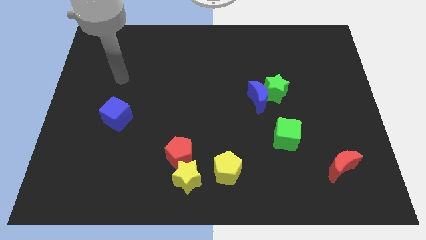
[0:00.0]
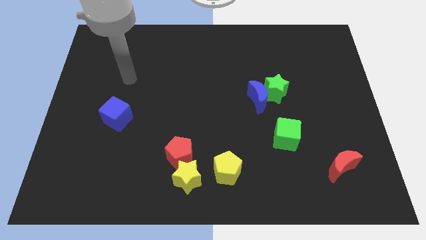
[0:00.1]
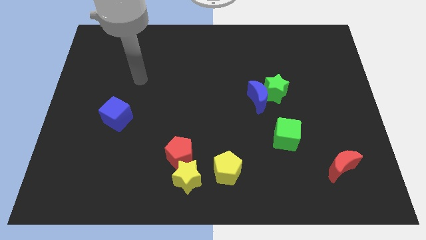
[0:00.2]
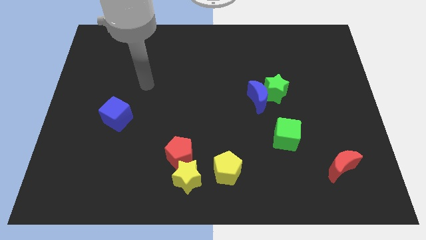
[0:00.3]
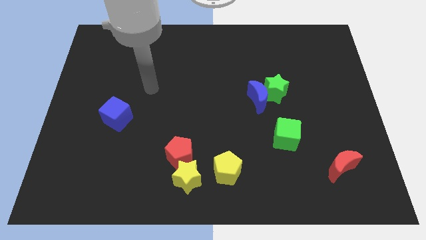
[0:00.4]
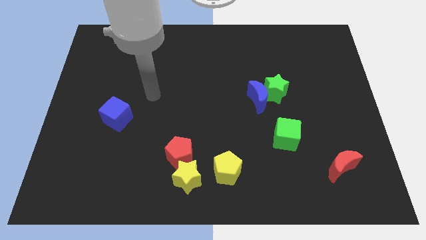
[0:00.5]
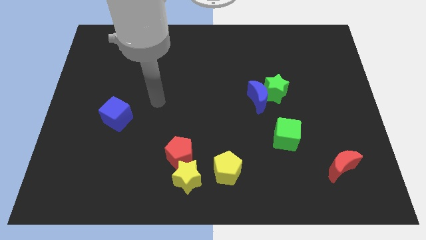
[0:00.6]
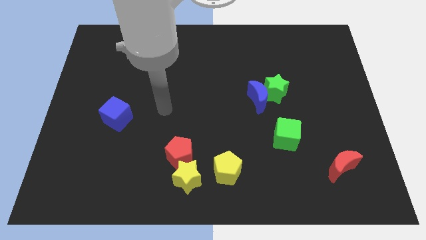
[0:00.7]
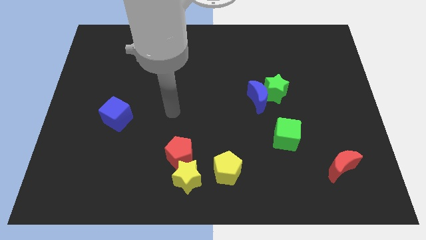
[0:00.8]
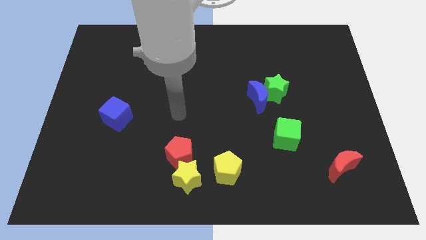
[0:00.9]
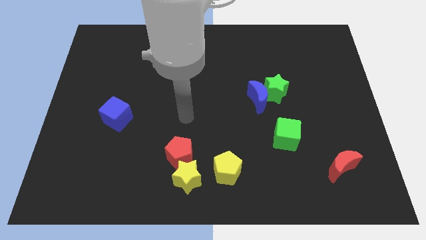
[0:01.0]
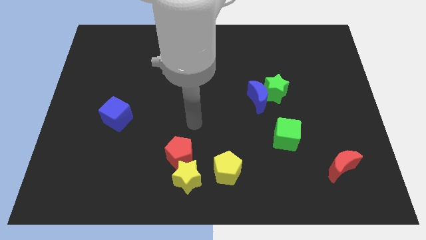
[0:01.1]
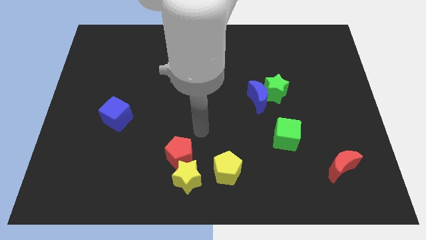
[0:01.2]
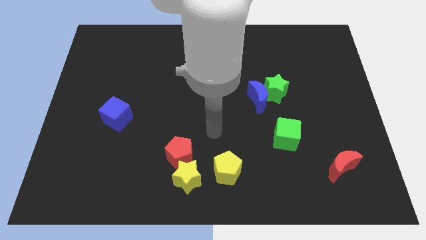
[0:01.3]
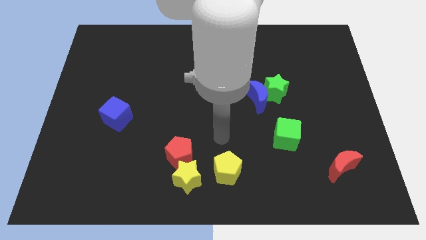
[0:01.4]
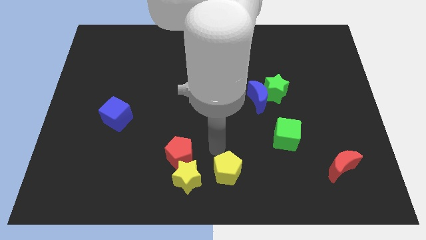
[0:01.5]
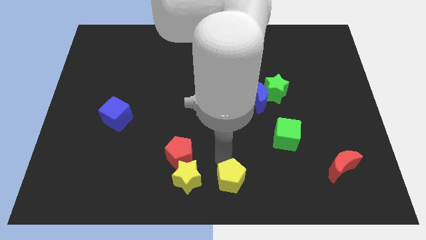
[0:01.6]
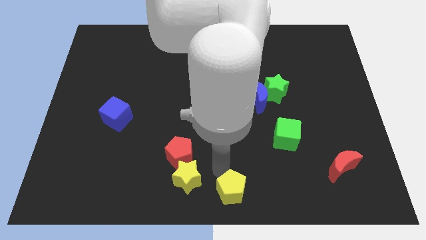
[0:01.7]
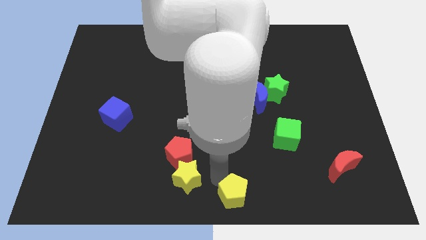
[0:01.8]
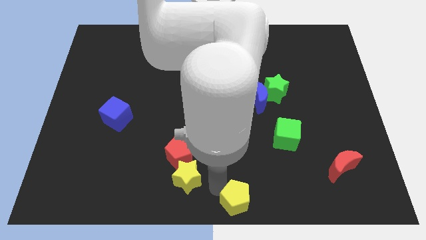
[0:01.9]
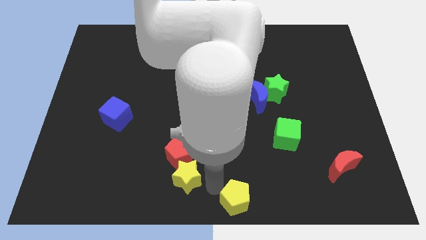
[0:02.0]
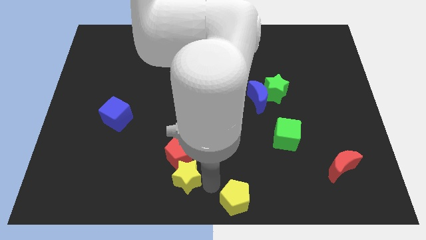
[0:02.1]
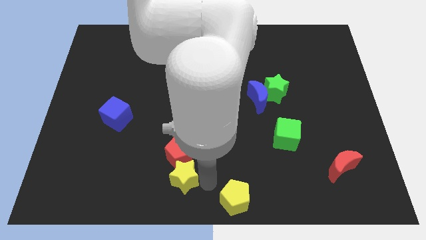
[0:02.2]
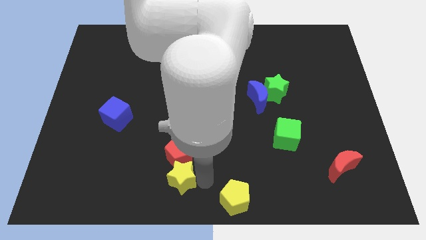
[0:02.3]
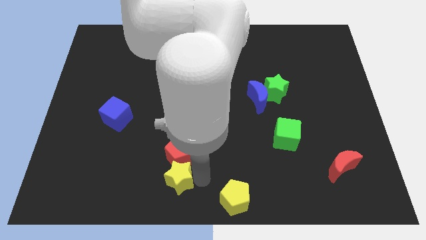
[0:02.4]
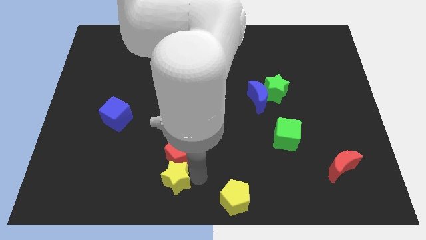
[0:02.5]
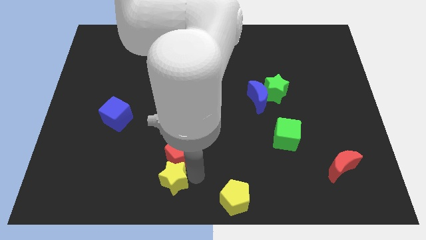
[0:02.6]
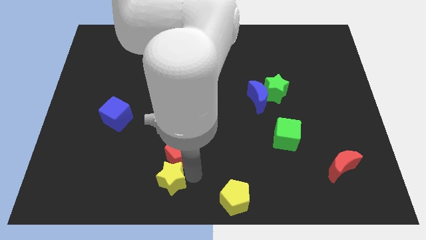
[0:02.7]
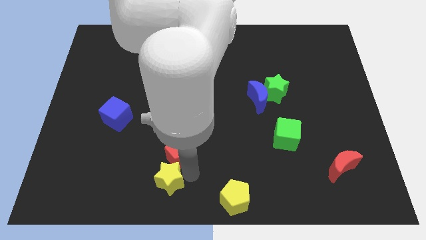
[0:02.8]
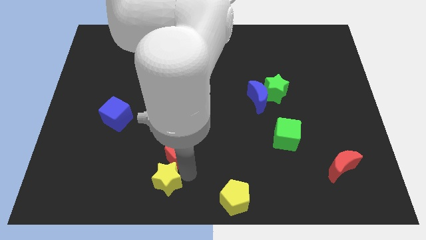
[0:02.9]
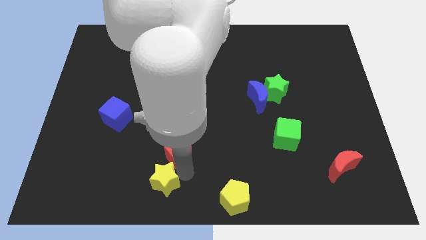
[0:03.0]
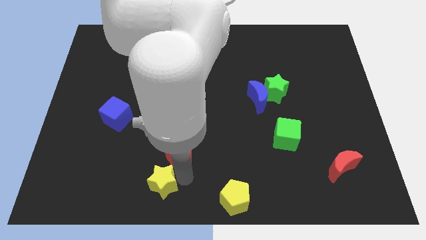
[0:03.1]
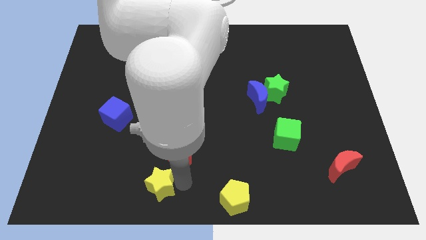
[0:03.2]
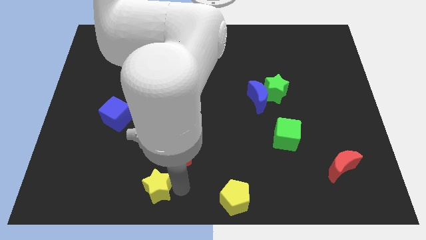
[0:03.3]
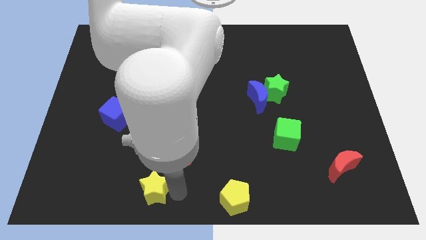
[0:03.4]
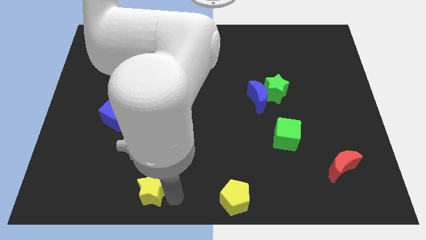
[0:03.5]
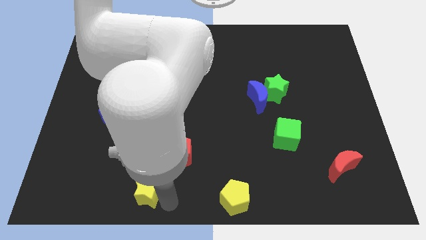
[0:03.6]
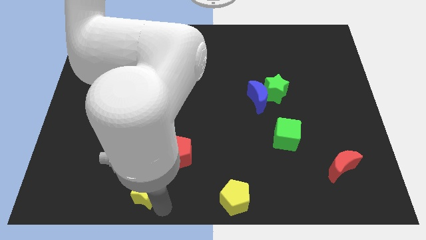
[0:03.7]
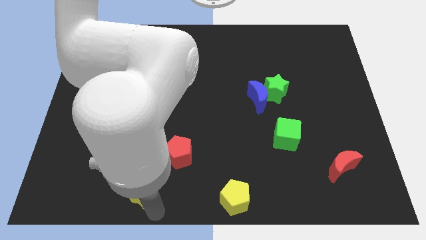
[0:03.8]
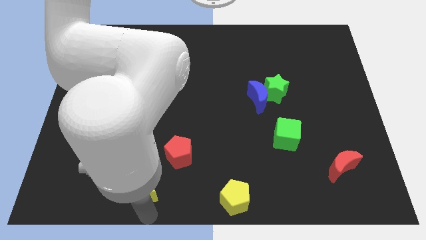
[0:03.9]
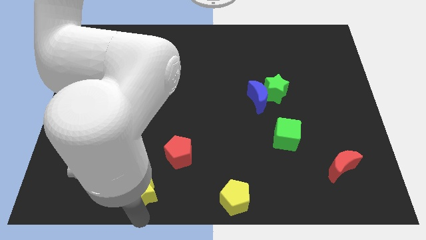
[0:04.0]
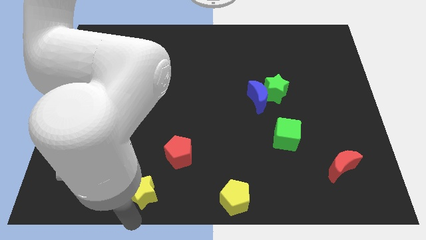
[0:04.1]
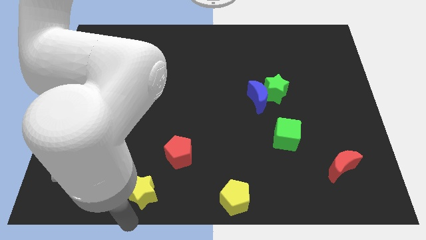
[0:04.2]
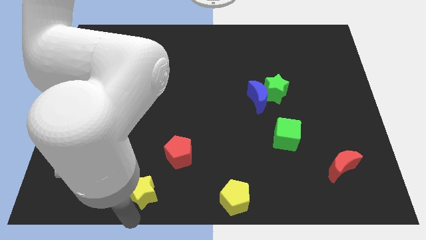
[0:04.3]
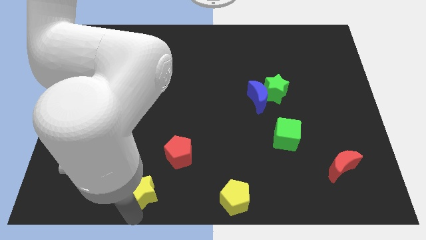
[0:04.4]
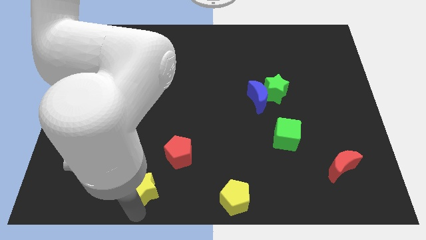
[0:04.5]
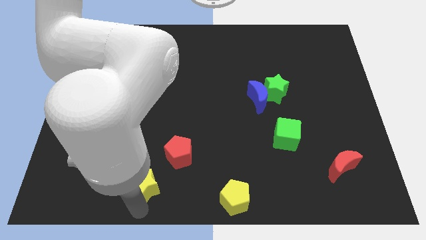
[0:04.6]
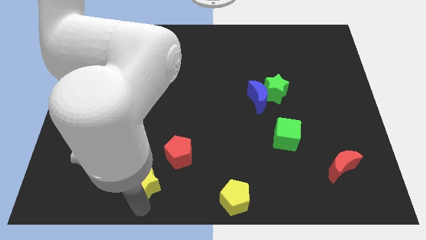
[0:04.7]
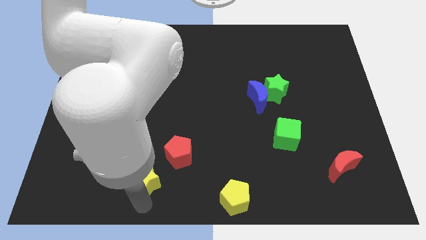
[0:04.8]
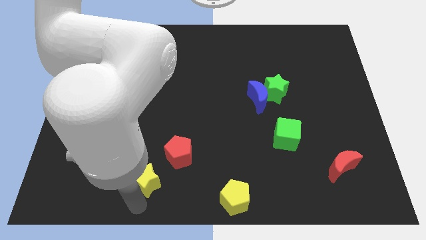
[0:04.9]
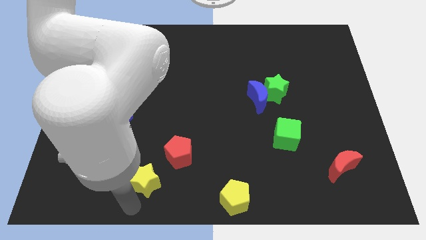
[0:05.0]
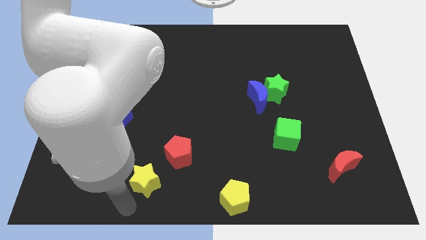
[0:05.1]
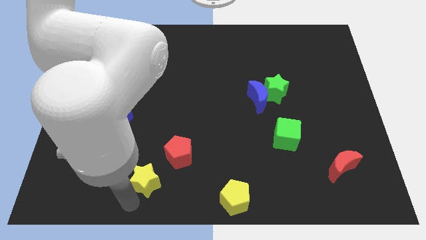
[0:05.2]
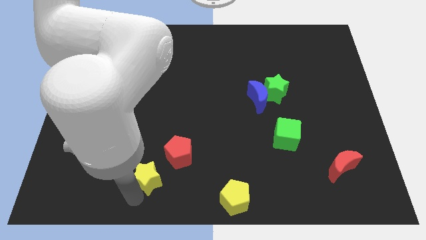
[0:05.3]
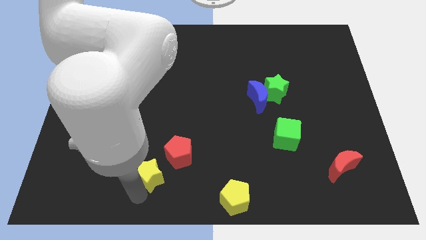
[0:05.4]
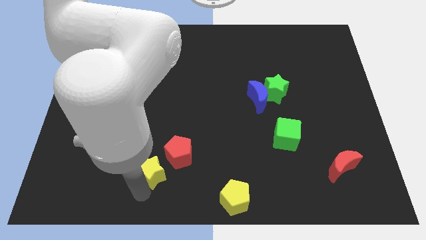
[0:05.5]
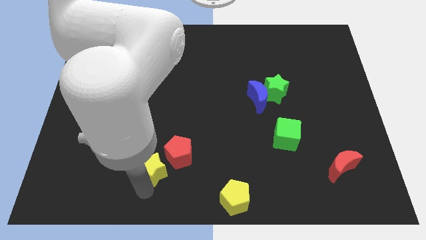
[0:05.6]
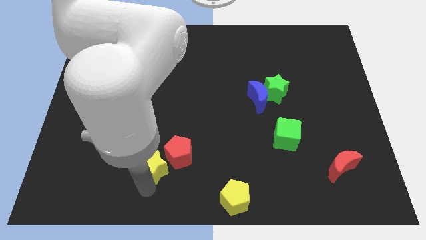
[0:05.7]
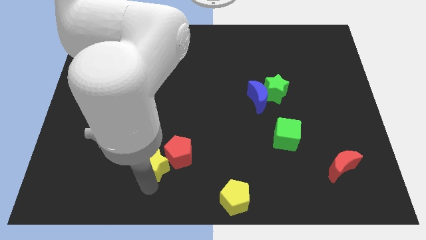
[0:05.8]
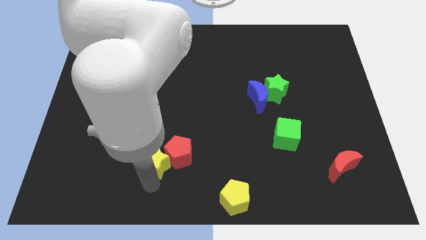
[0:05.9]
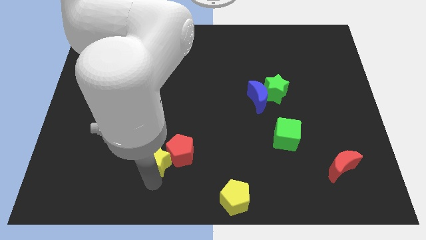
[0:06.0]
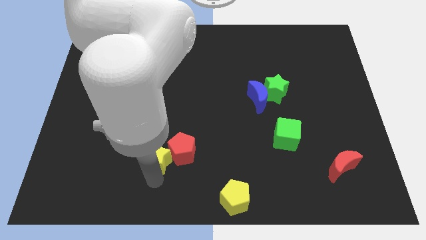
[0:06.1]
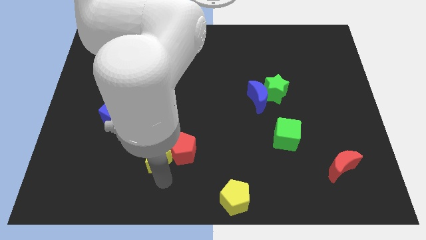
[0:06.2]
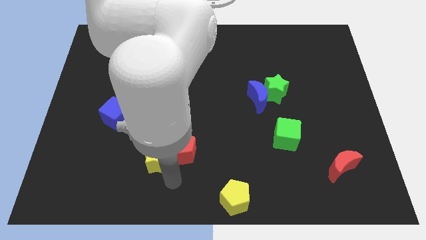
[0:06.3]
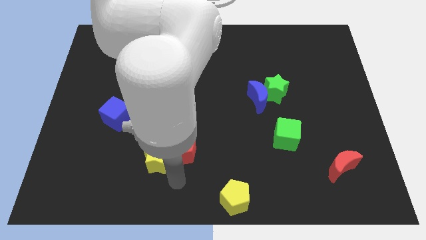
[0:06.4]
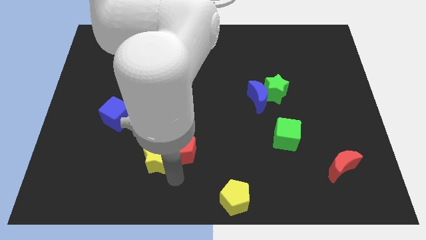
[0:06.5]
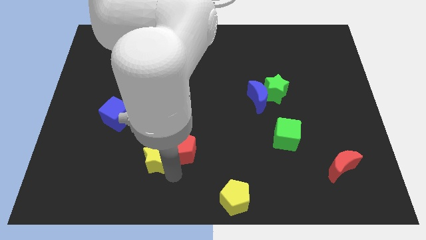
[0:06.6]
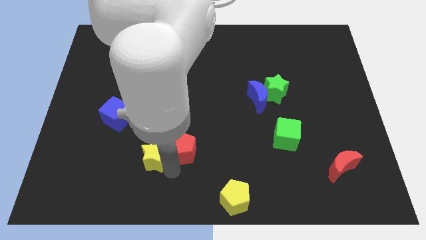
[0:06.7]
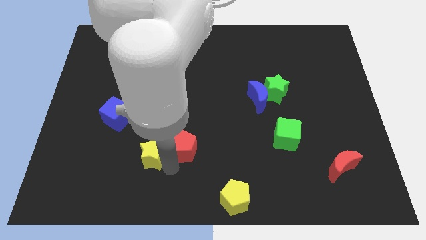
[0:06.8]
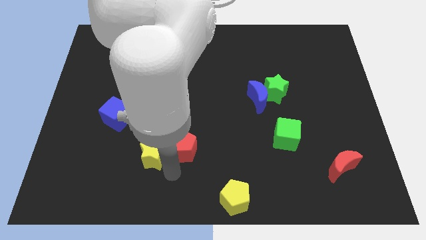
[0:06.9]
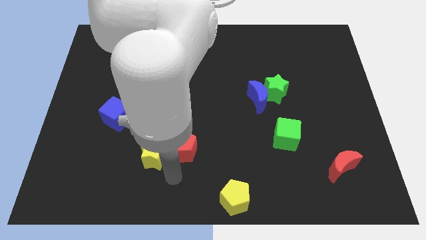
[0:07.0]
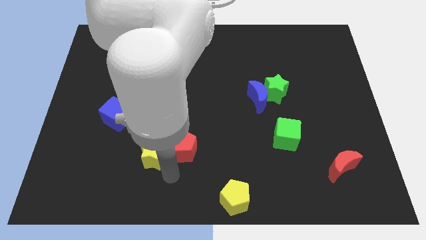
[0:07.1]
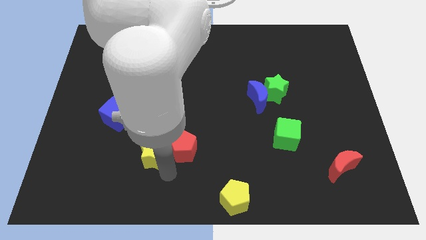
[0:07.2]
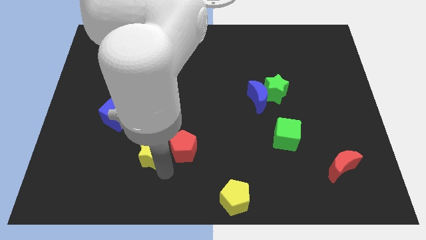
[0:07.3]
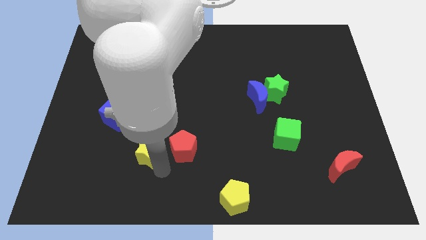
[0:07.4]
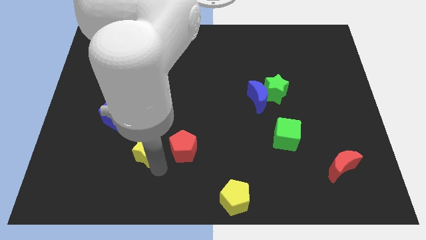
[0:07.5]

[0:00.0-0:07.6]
put the yellow star to the bottom right side of the blue cube

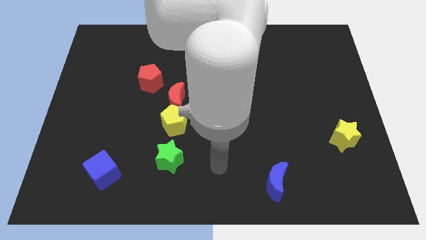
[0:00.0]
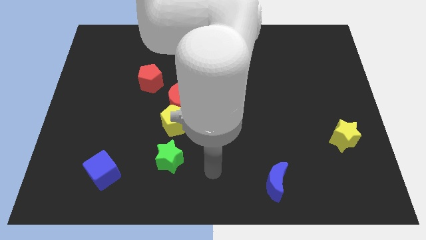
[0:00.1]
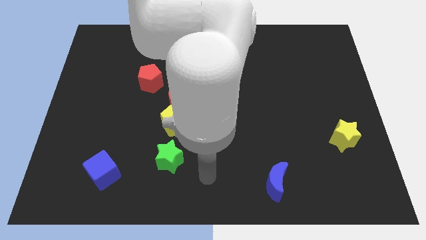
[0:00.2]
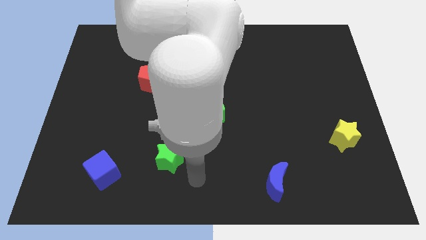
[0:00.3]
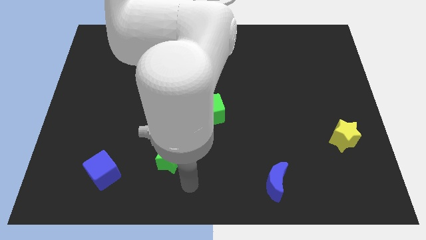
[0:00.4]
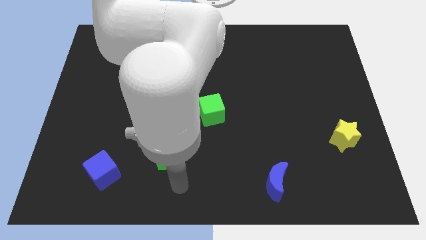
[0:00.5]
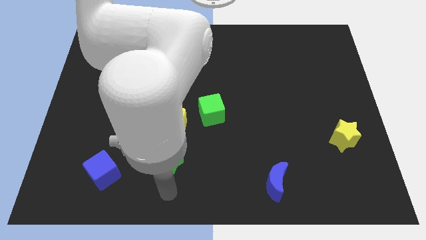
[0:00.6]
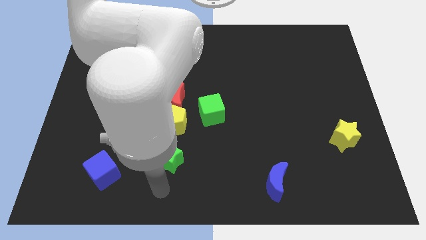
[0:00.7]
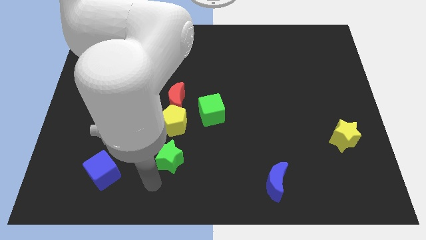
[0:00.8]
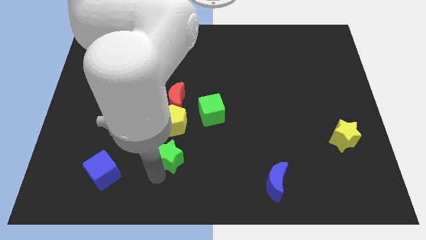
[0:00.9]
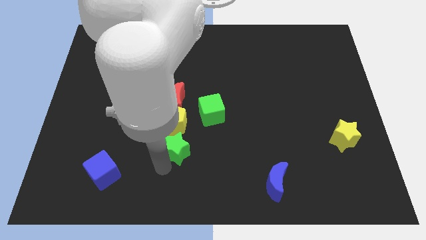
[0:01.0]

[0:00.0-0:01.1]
slide the green star to the bottom left side of the green cube
